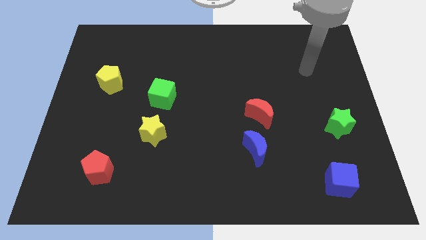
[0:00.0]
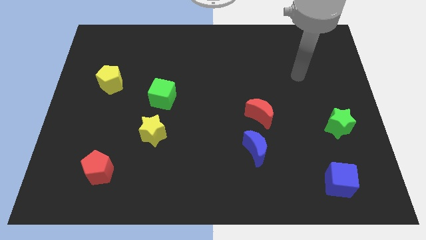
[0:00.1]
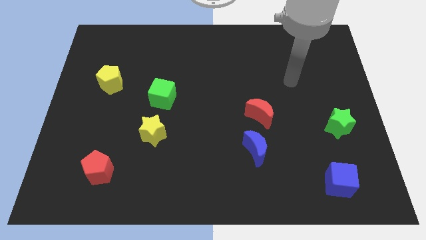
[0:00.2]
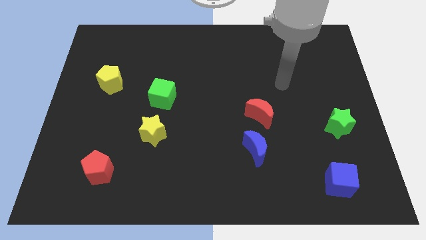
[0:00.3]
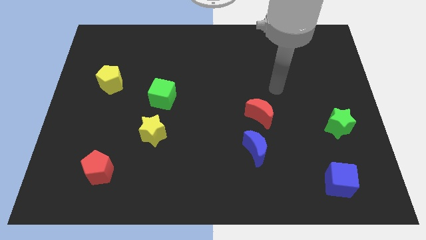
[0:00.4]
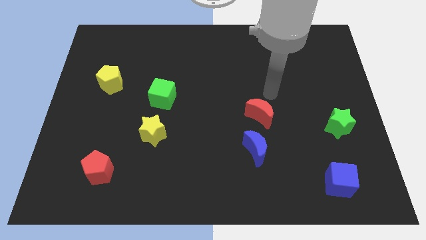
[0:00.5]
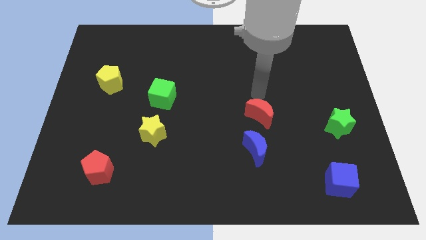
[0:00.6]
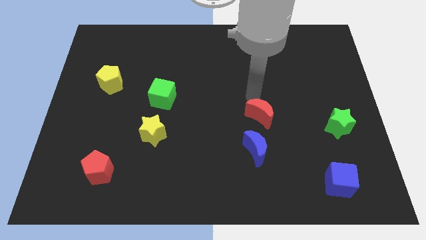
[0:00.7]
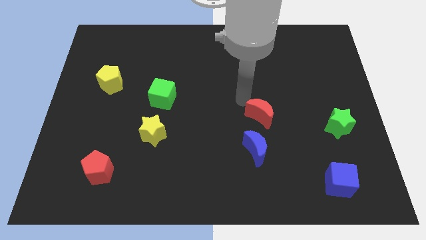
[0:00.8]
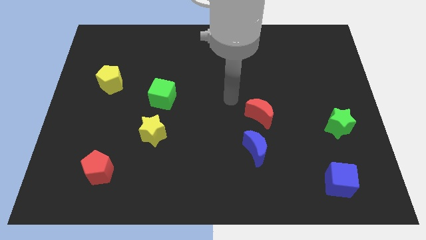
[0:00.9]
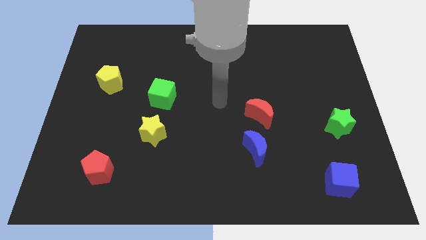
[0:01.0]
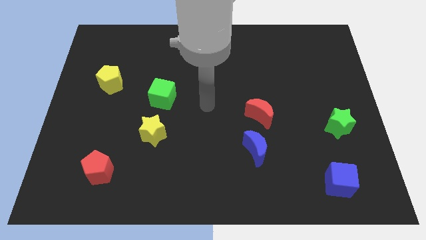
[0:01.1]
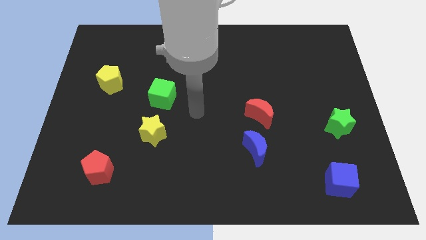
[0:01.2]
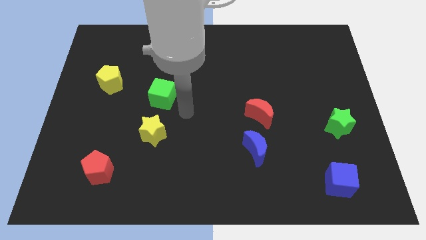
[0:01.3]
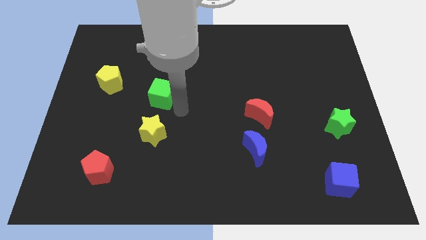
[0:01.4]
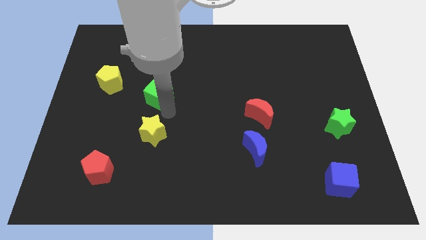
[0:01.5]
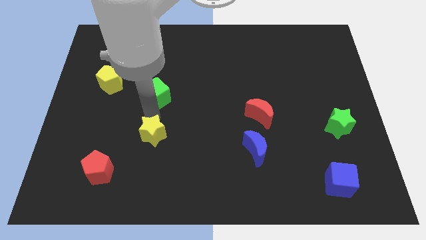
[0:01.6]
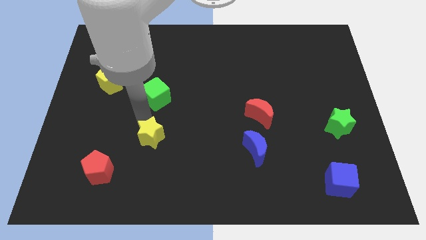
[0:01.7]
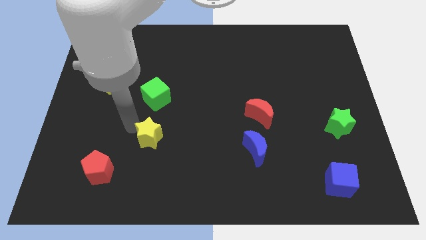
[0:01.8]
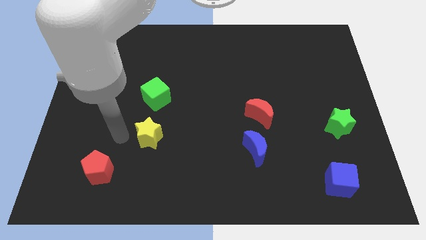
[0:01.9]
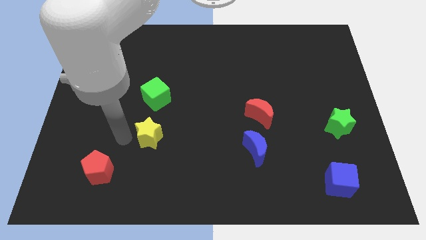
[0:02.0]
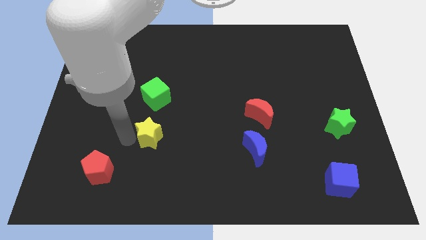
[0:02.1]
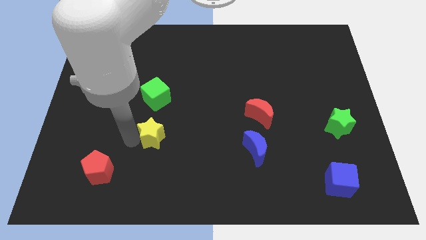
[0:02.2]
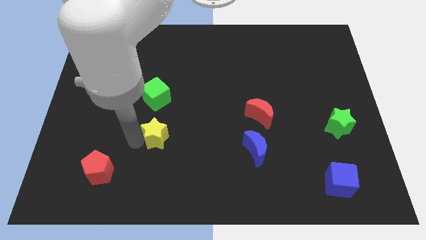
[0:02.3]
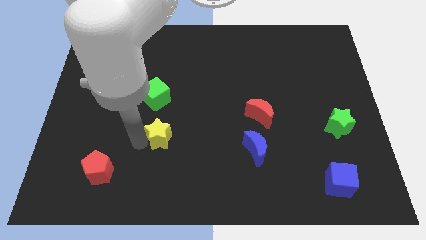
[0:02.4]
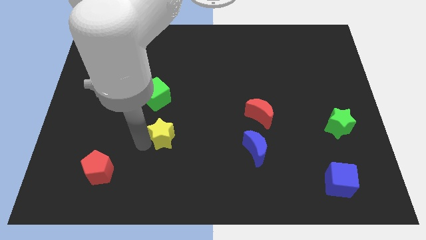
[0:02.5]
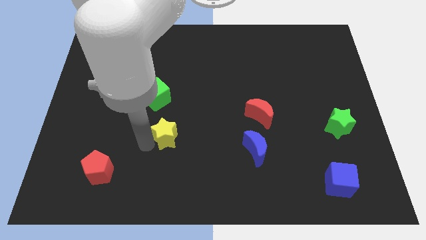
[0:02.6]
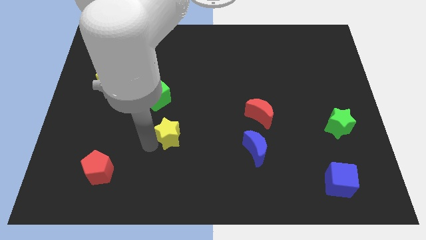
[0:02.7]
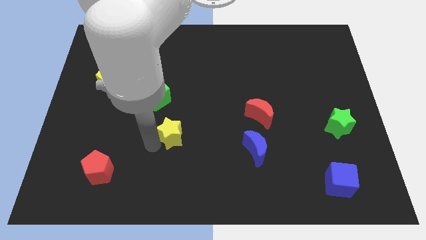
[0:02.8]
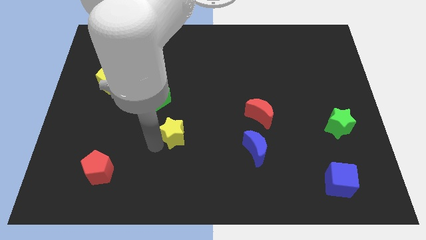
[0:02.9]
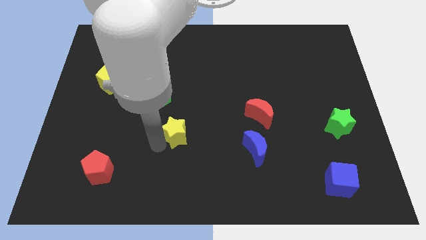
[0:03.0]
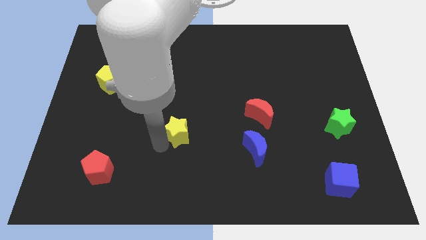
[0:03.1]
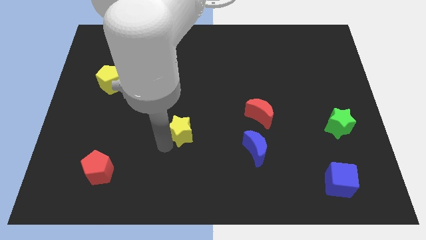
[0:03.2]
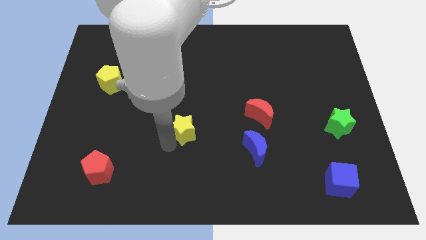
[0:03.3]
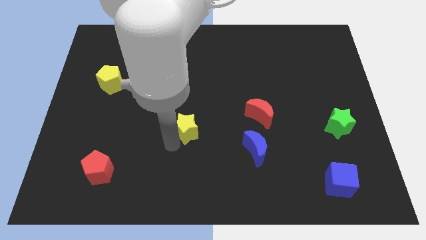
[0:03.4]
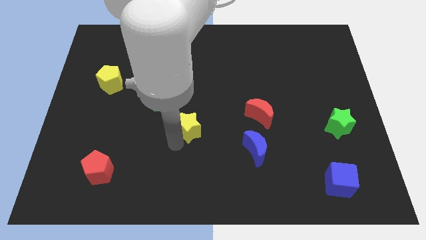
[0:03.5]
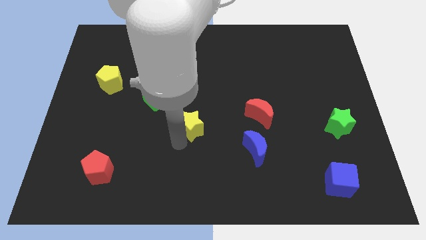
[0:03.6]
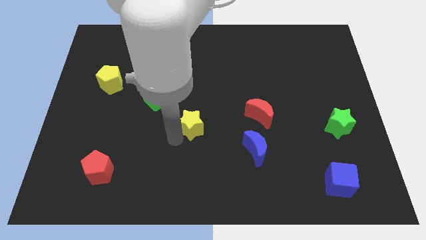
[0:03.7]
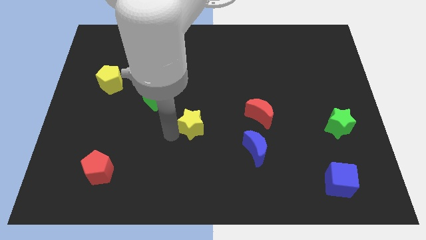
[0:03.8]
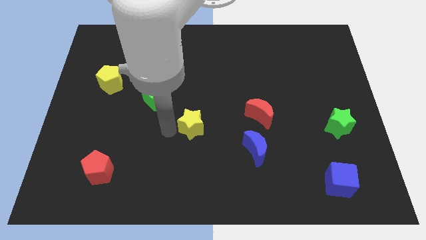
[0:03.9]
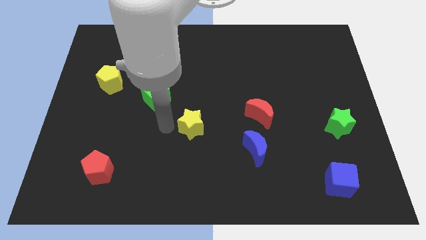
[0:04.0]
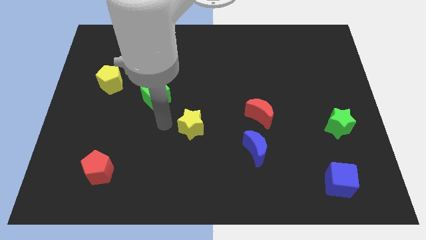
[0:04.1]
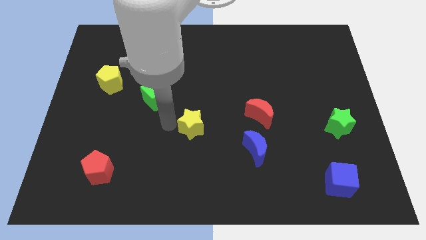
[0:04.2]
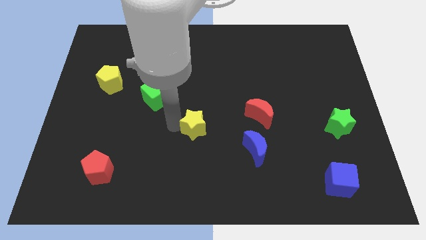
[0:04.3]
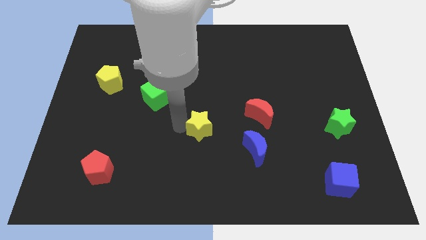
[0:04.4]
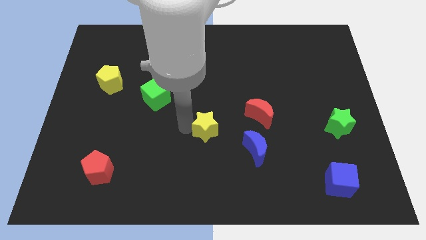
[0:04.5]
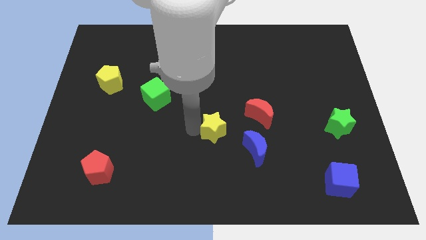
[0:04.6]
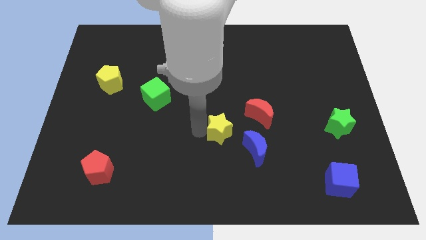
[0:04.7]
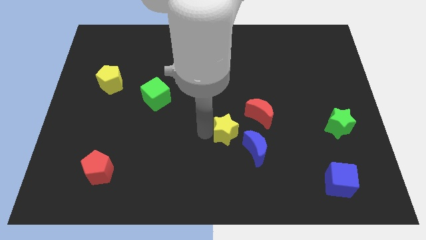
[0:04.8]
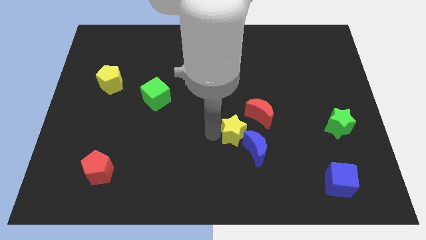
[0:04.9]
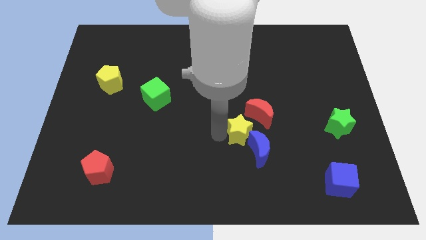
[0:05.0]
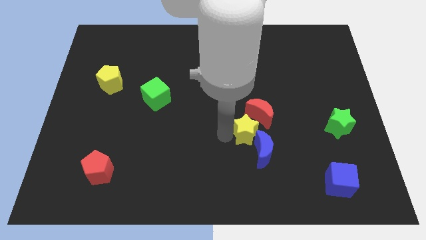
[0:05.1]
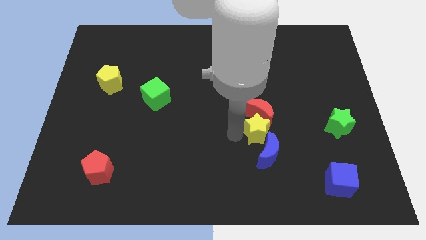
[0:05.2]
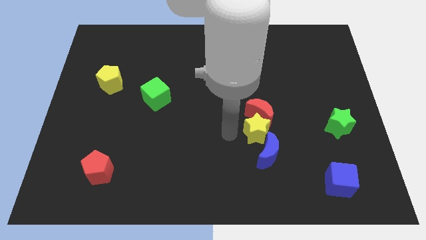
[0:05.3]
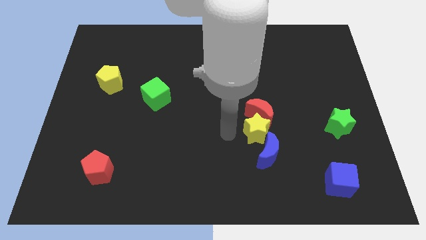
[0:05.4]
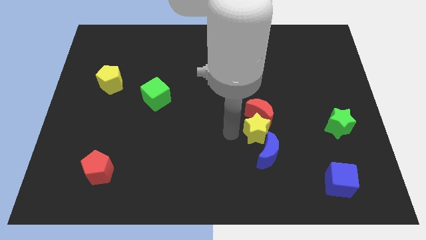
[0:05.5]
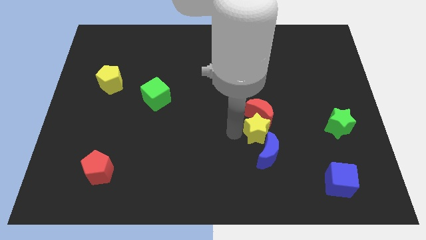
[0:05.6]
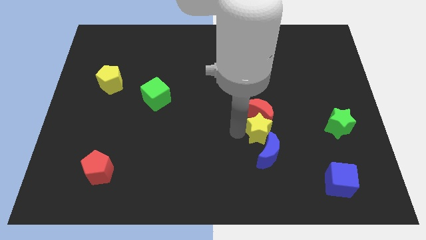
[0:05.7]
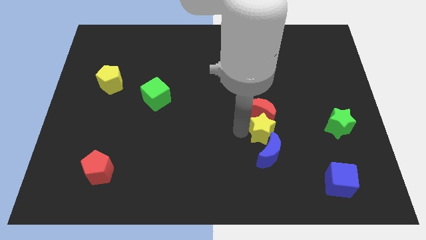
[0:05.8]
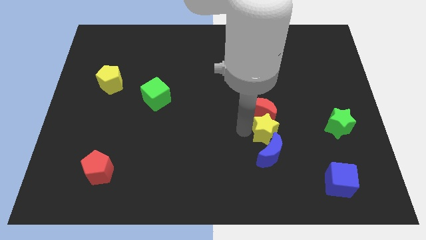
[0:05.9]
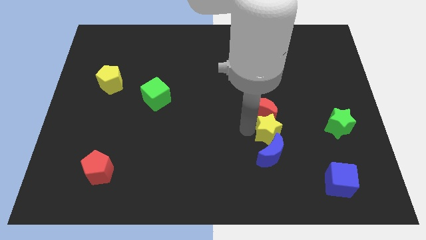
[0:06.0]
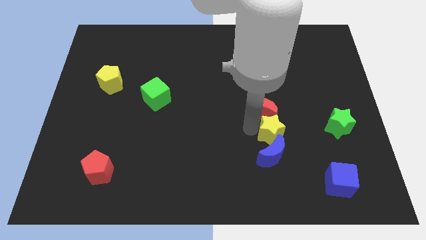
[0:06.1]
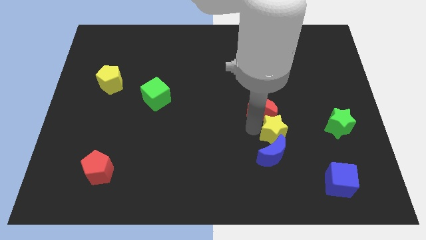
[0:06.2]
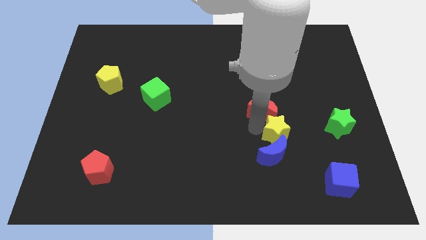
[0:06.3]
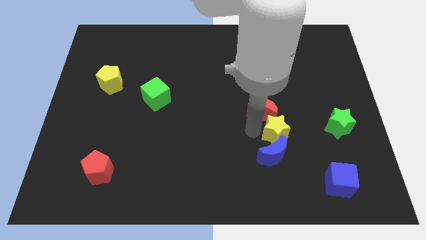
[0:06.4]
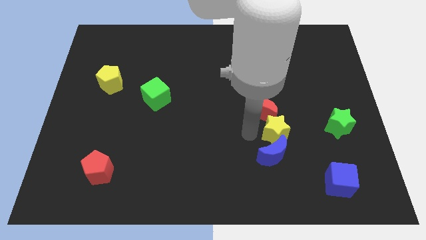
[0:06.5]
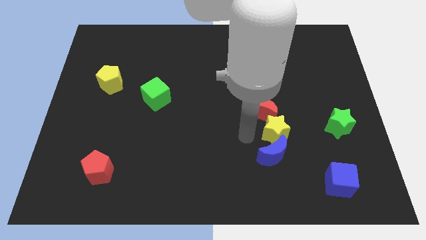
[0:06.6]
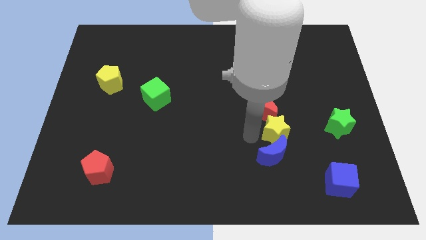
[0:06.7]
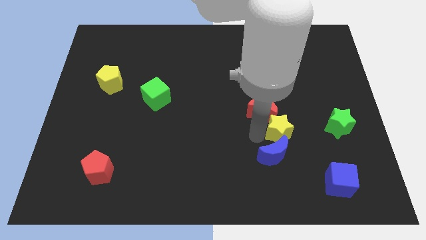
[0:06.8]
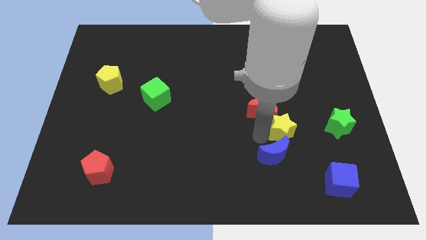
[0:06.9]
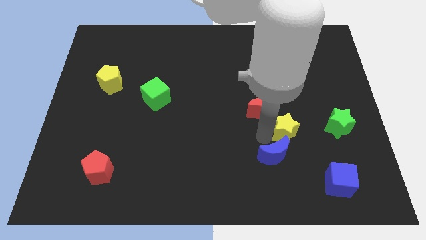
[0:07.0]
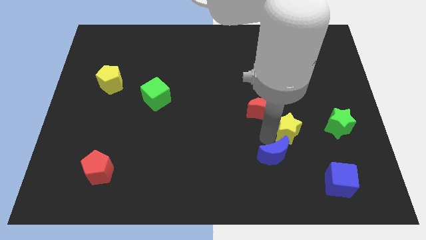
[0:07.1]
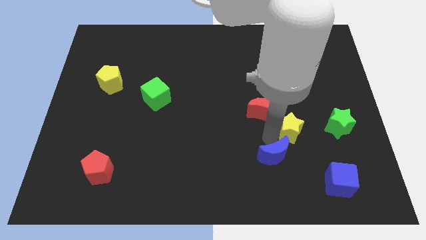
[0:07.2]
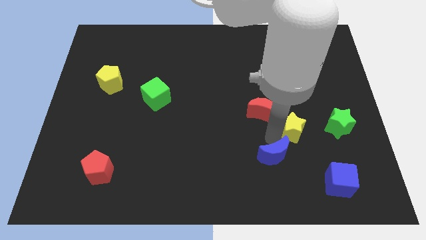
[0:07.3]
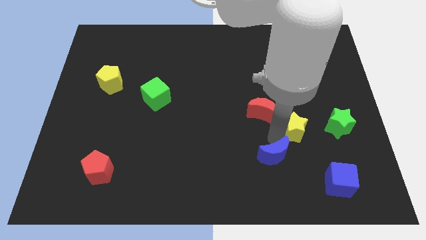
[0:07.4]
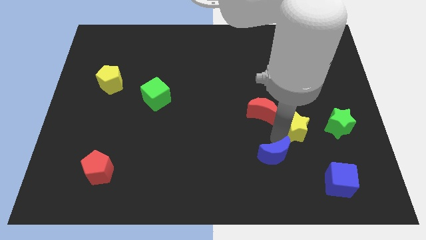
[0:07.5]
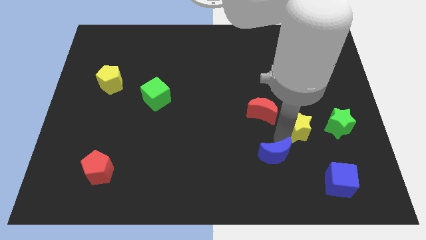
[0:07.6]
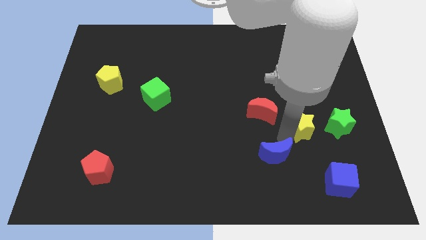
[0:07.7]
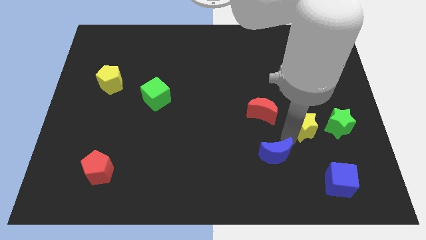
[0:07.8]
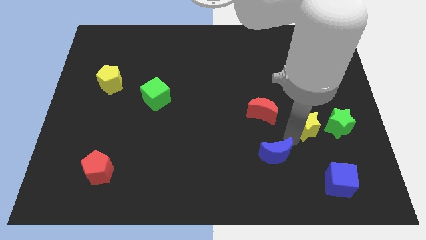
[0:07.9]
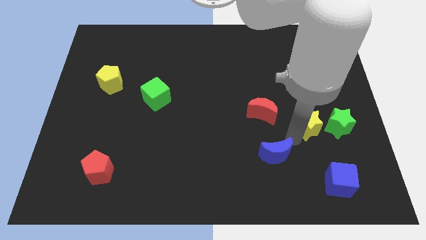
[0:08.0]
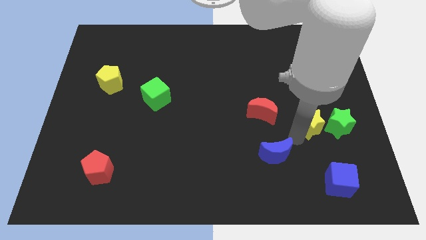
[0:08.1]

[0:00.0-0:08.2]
push the yellow star to the green star
